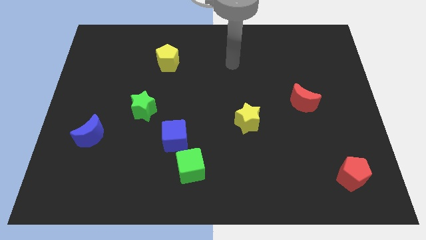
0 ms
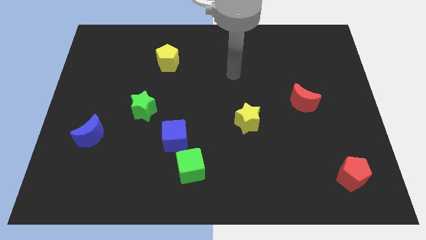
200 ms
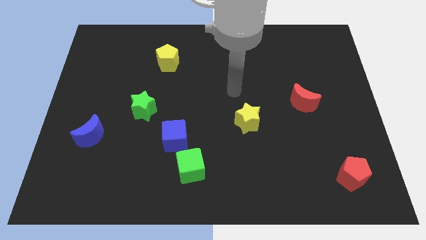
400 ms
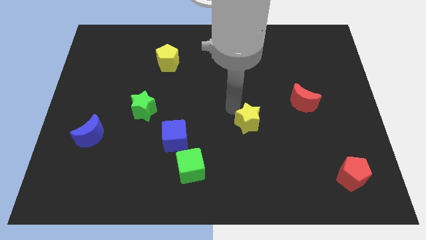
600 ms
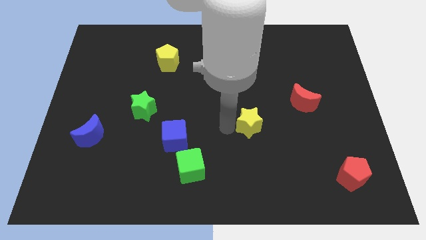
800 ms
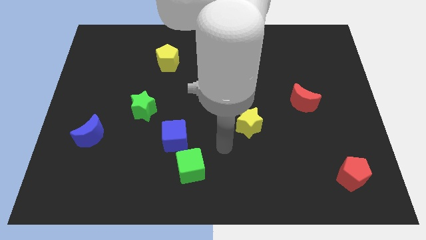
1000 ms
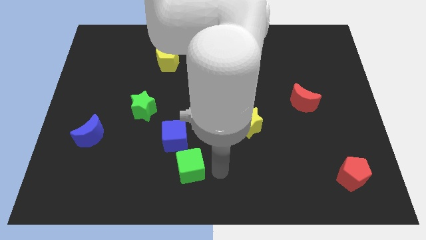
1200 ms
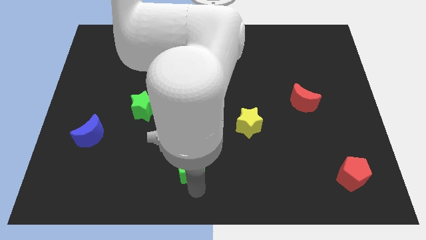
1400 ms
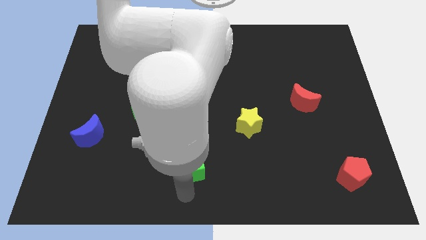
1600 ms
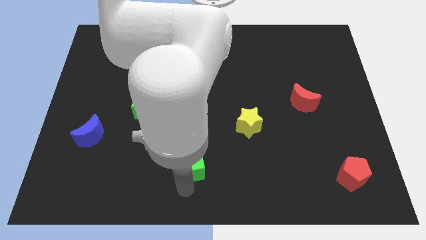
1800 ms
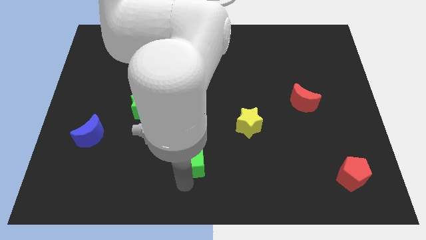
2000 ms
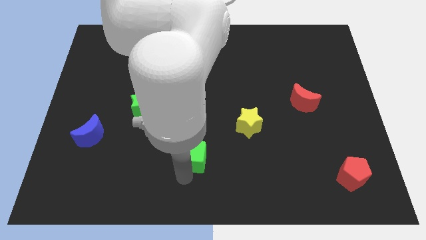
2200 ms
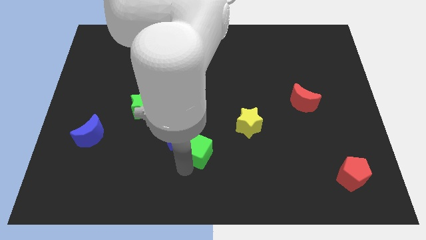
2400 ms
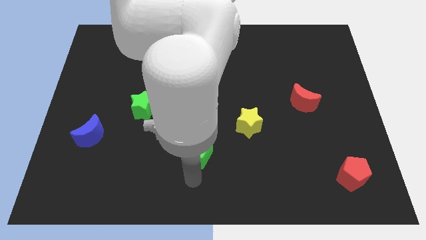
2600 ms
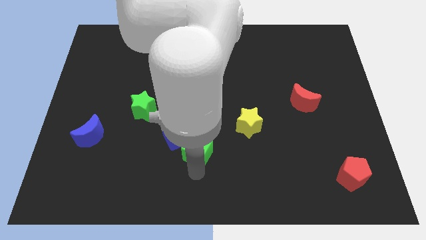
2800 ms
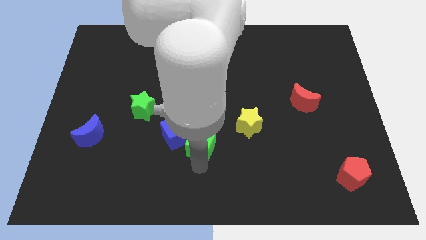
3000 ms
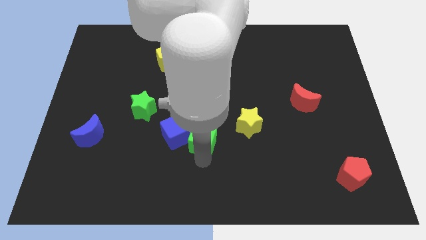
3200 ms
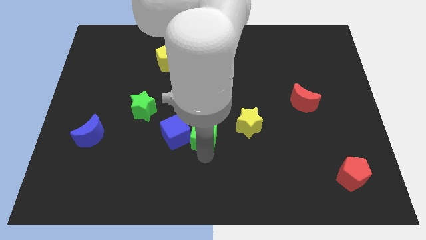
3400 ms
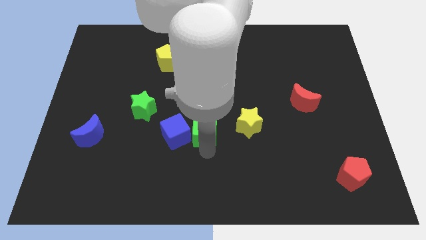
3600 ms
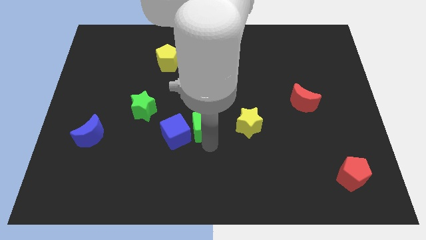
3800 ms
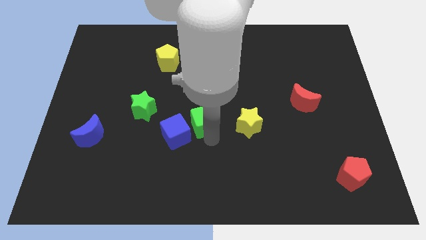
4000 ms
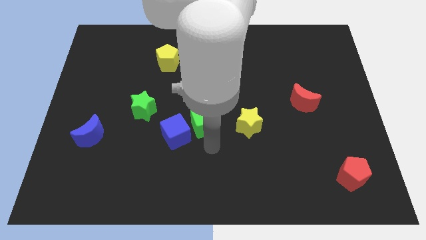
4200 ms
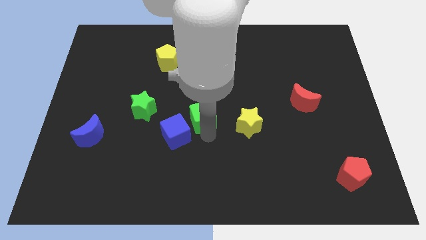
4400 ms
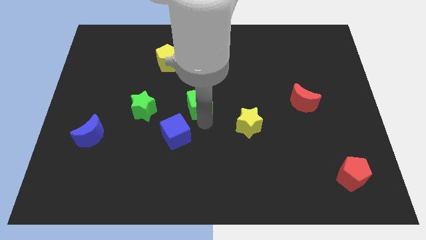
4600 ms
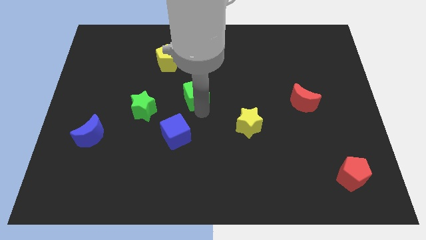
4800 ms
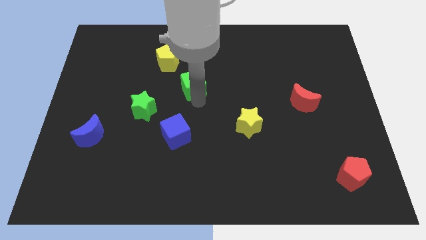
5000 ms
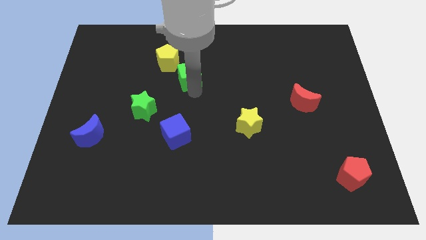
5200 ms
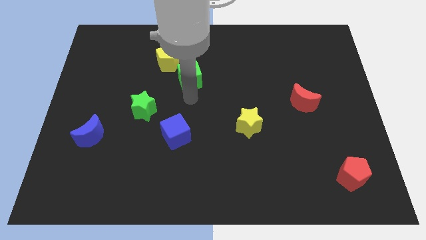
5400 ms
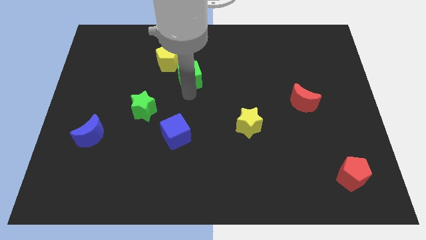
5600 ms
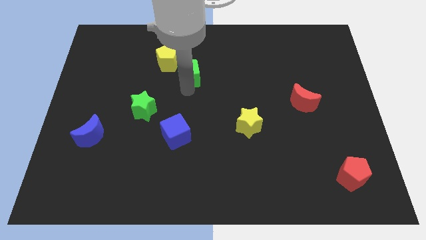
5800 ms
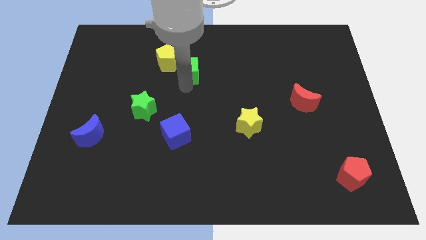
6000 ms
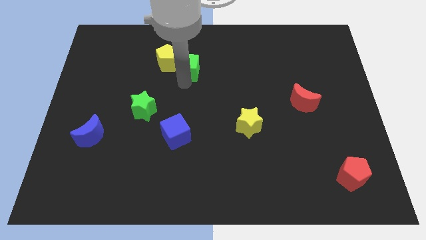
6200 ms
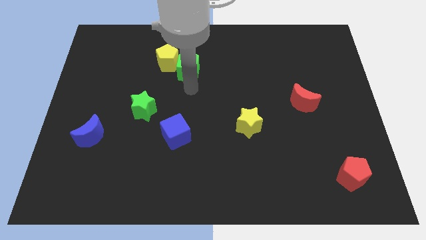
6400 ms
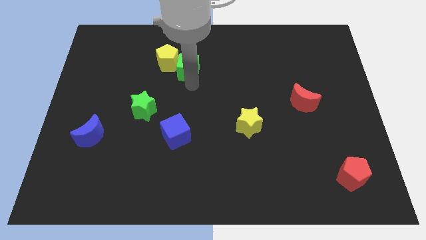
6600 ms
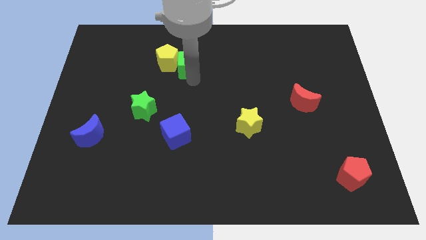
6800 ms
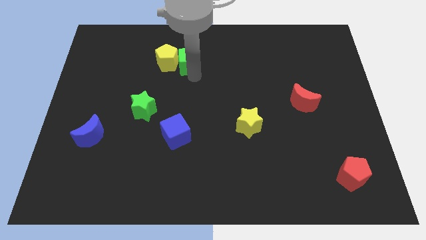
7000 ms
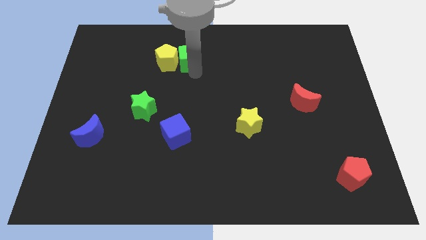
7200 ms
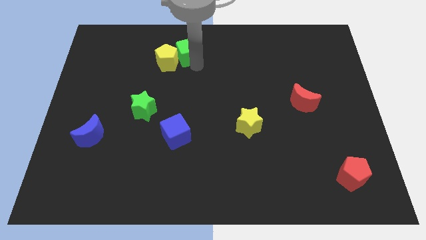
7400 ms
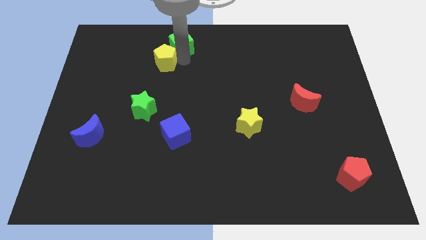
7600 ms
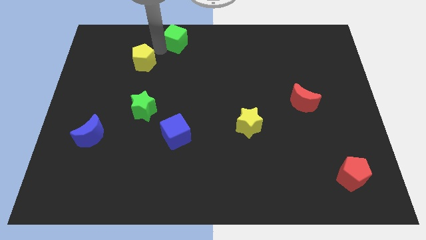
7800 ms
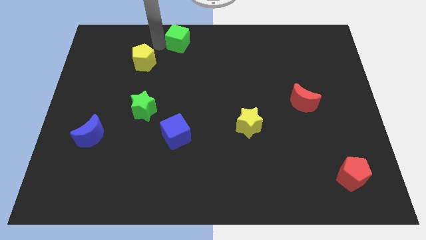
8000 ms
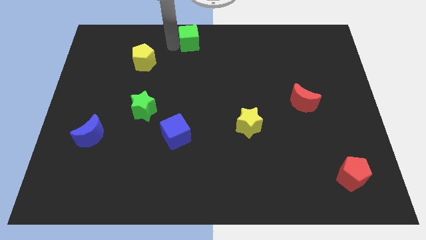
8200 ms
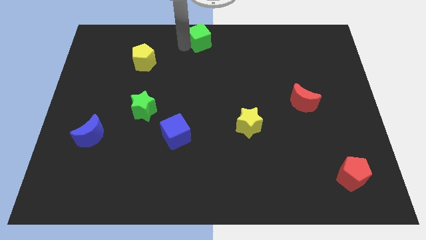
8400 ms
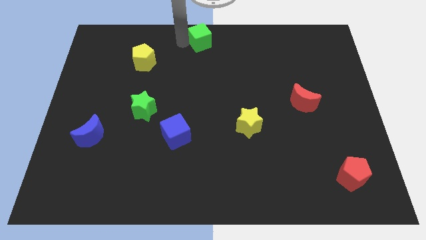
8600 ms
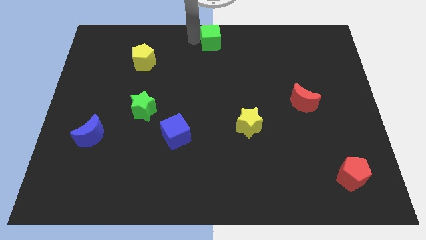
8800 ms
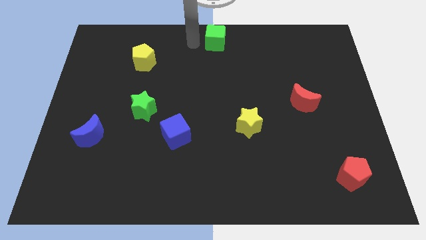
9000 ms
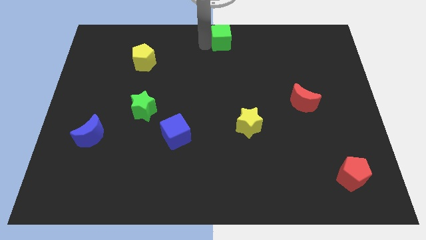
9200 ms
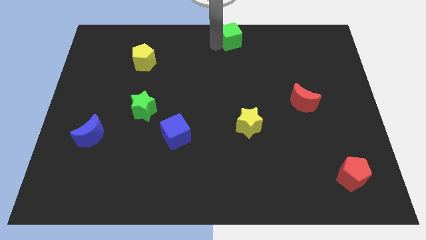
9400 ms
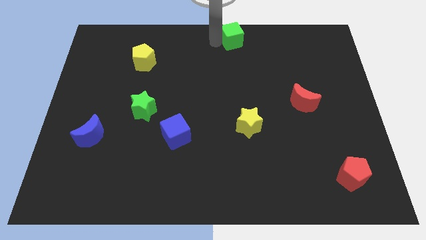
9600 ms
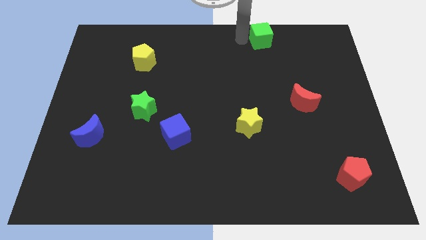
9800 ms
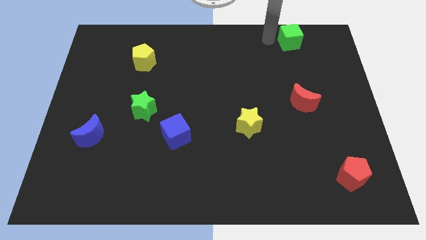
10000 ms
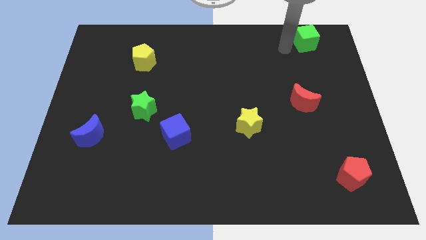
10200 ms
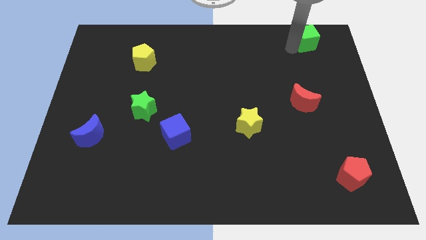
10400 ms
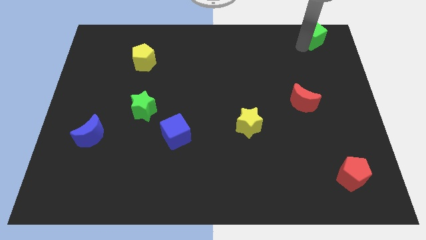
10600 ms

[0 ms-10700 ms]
slide the green cube to the top right of the board

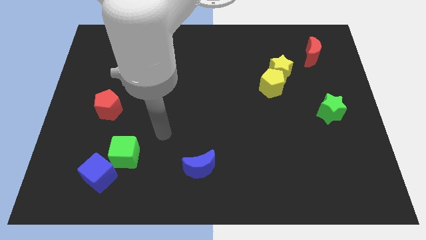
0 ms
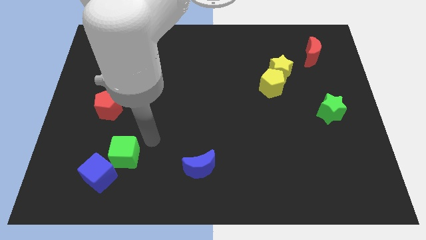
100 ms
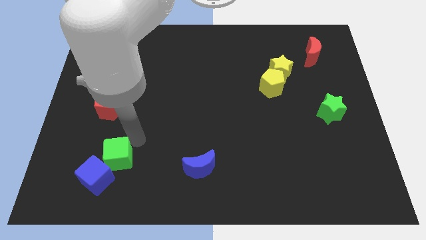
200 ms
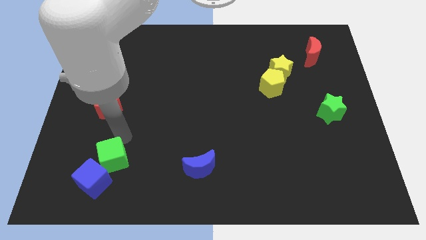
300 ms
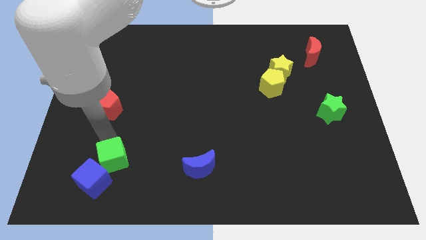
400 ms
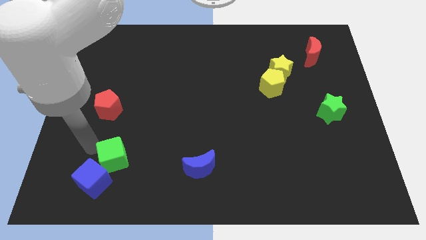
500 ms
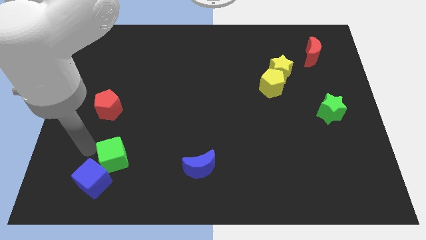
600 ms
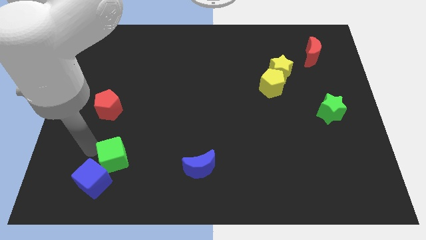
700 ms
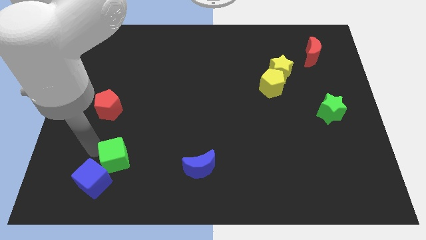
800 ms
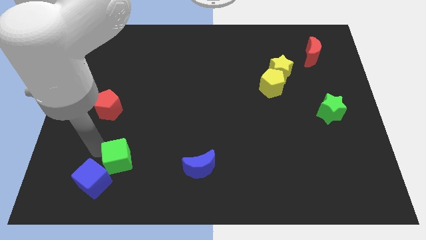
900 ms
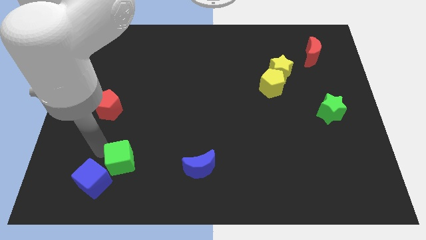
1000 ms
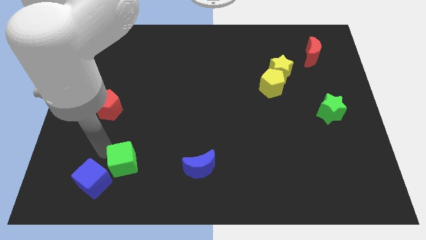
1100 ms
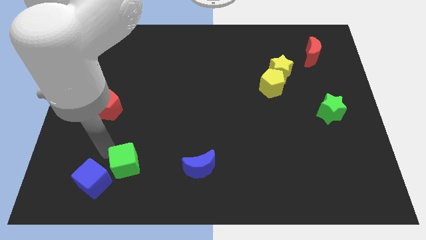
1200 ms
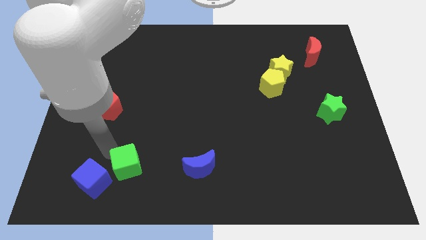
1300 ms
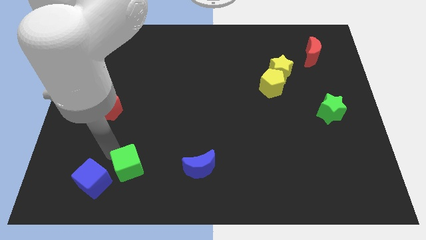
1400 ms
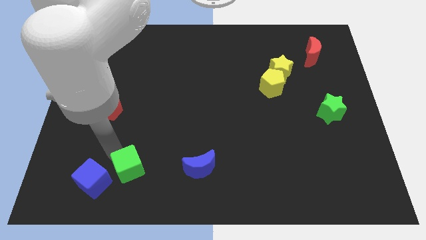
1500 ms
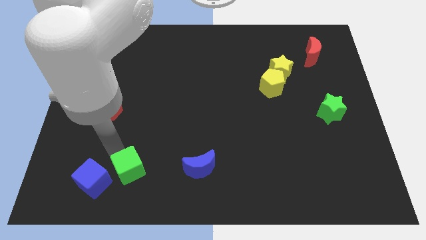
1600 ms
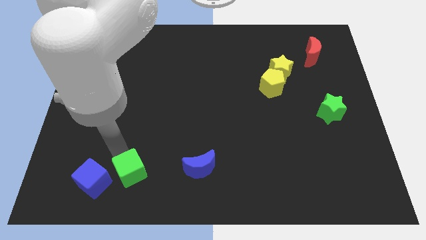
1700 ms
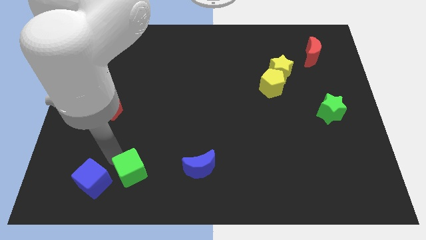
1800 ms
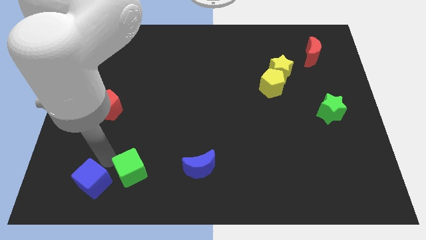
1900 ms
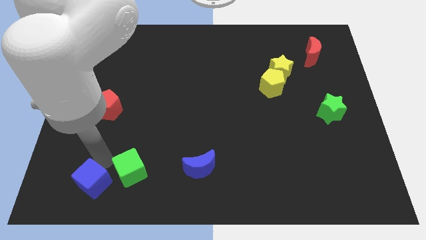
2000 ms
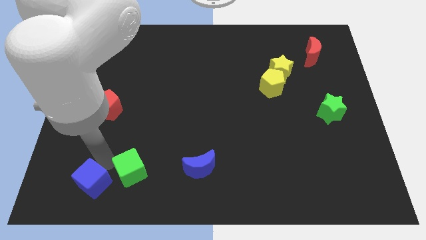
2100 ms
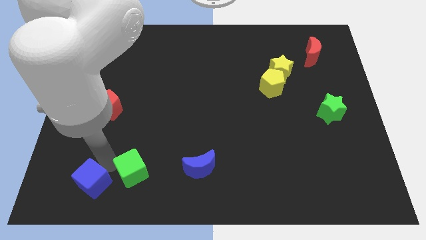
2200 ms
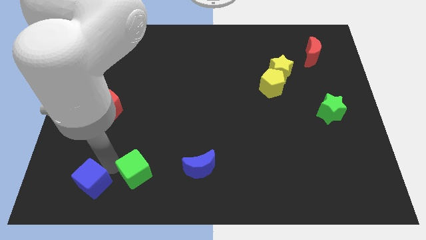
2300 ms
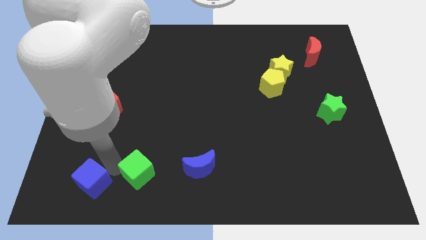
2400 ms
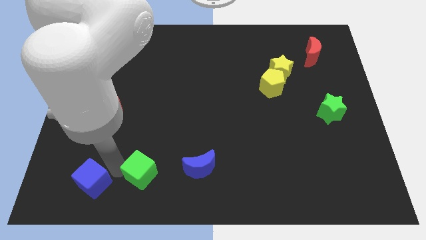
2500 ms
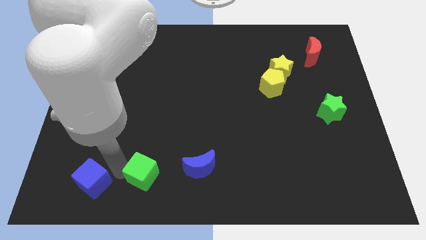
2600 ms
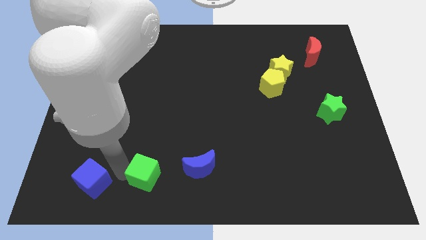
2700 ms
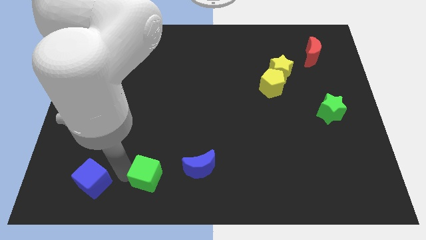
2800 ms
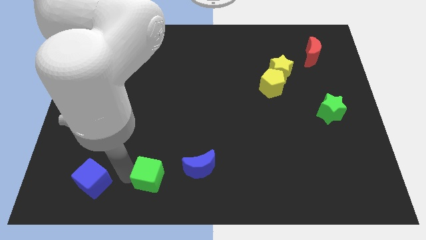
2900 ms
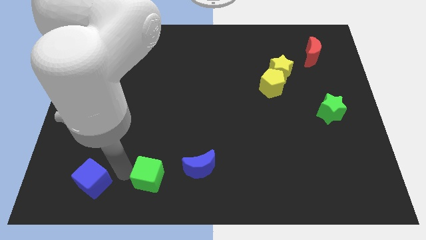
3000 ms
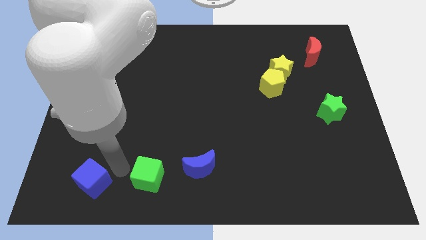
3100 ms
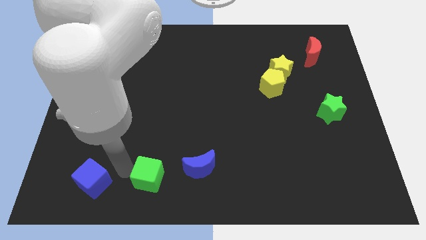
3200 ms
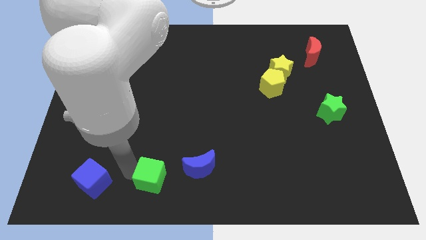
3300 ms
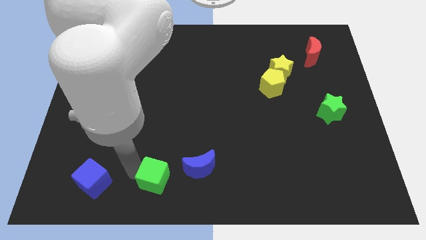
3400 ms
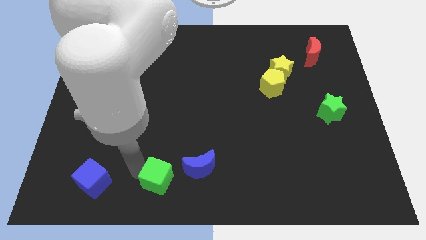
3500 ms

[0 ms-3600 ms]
push the green cube to the bottom
